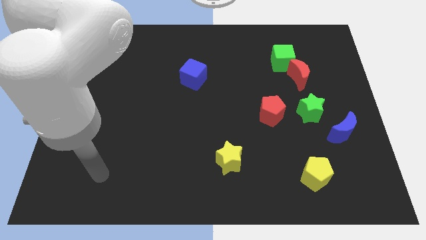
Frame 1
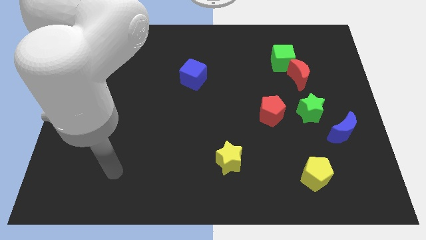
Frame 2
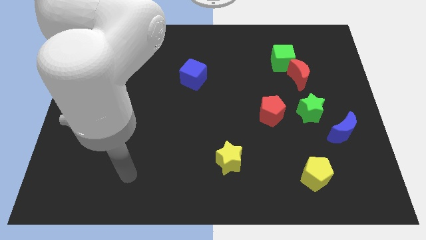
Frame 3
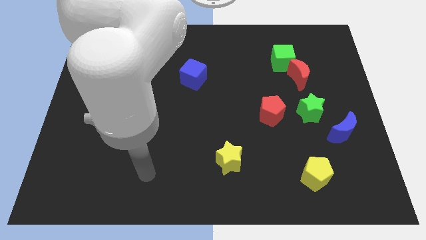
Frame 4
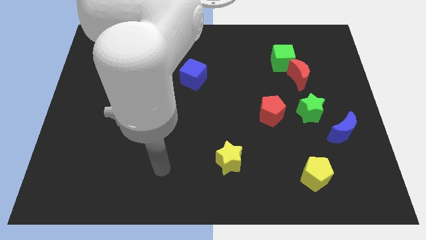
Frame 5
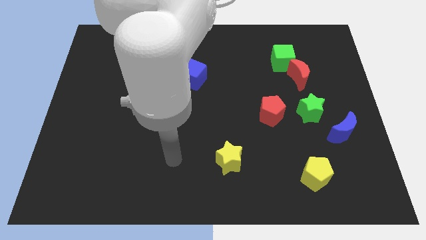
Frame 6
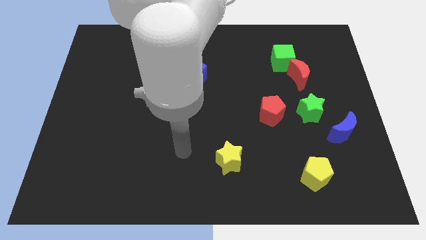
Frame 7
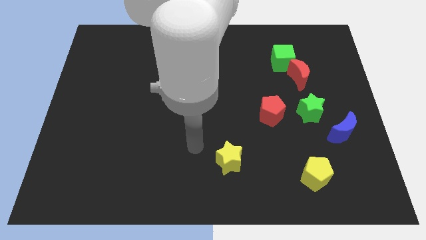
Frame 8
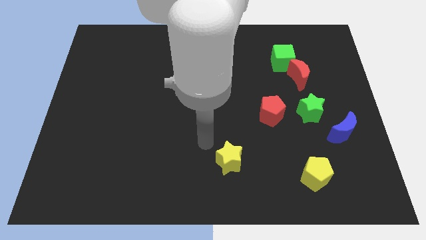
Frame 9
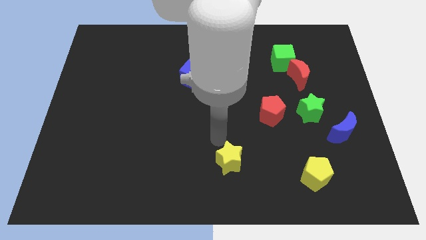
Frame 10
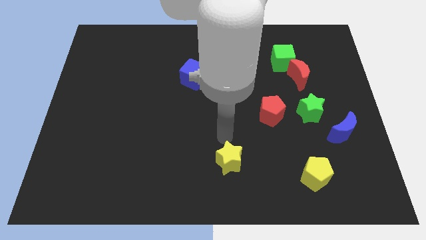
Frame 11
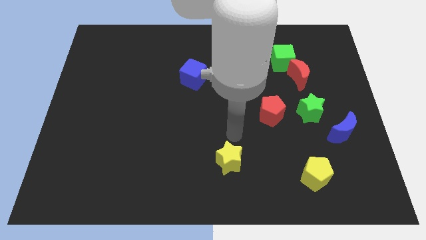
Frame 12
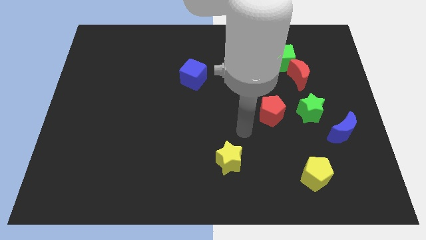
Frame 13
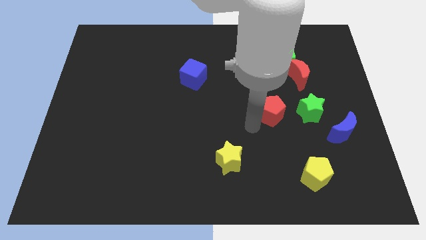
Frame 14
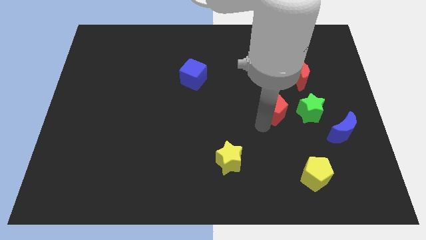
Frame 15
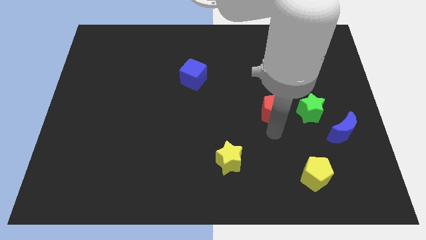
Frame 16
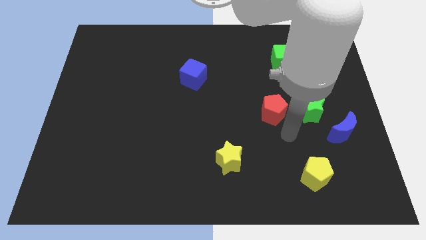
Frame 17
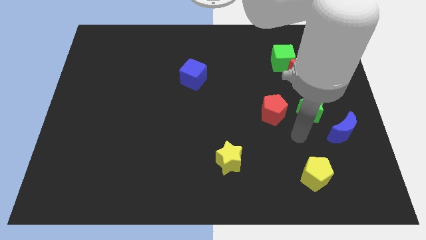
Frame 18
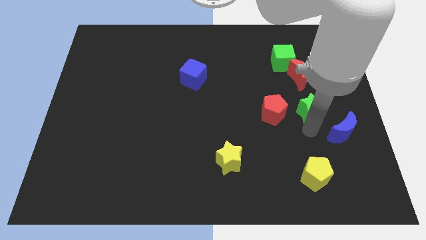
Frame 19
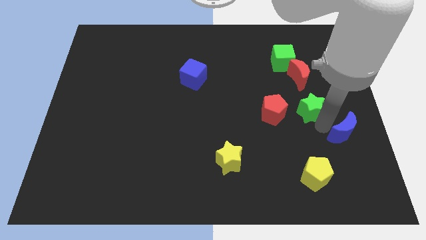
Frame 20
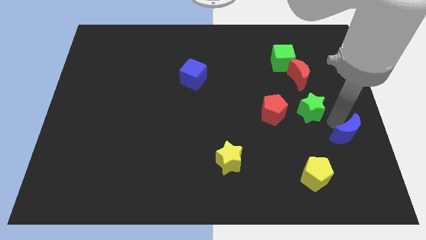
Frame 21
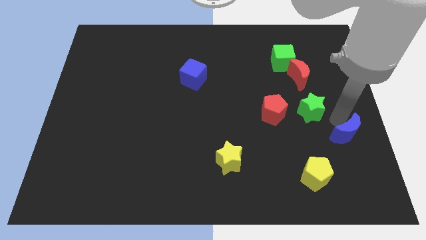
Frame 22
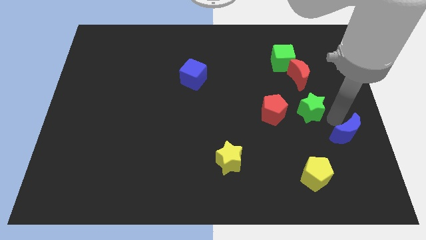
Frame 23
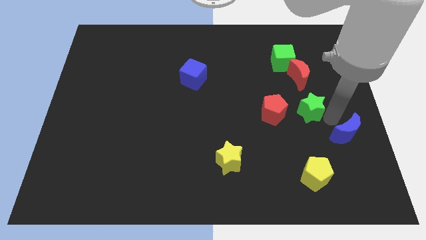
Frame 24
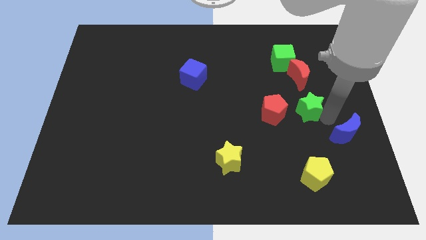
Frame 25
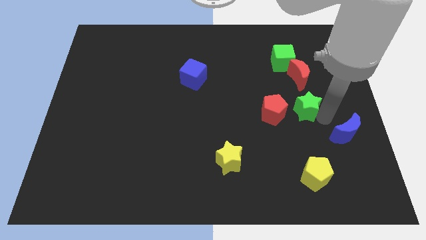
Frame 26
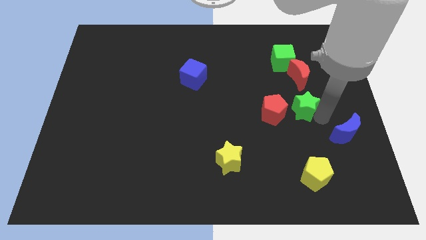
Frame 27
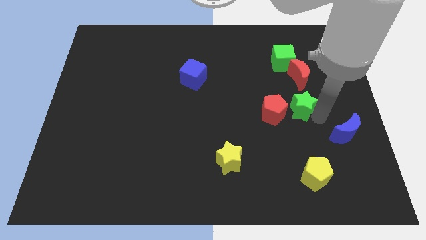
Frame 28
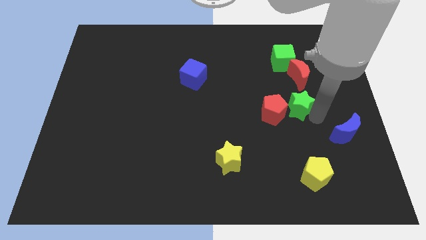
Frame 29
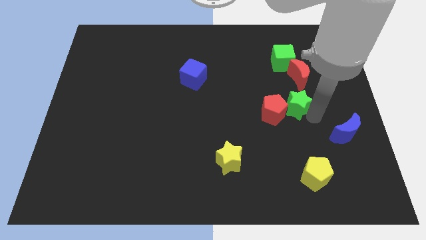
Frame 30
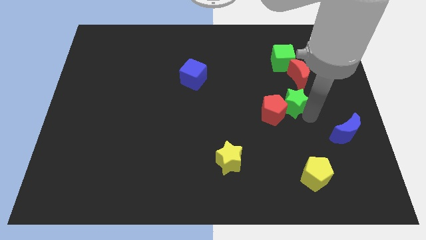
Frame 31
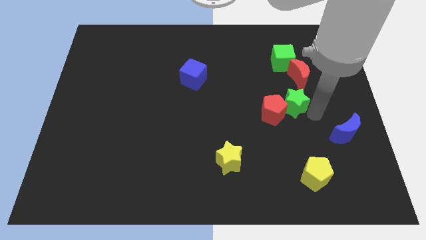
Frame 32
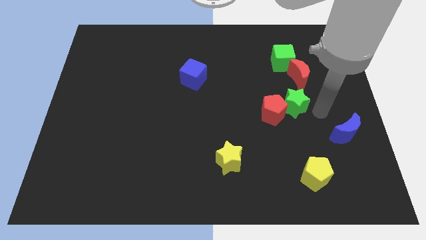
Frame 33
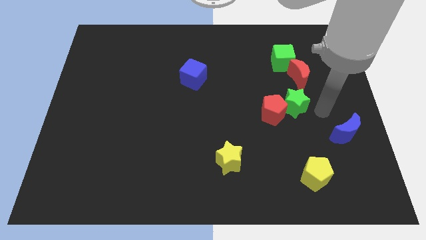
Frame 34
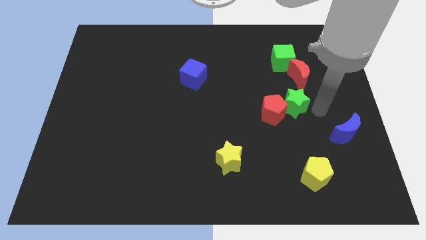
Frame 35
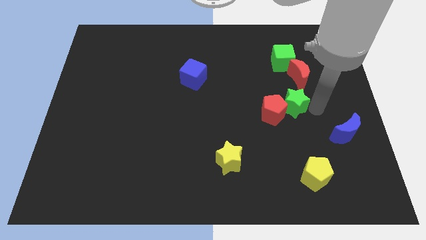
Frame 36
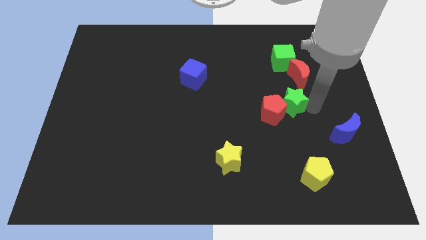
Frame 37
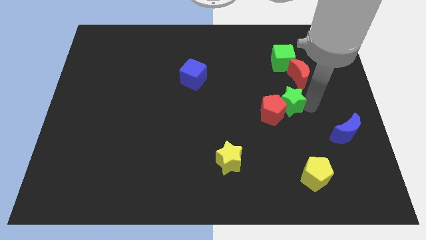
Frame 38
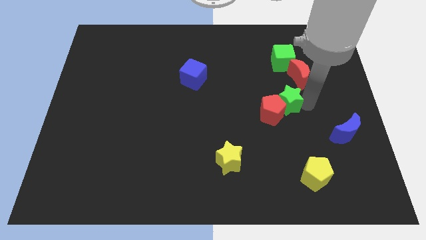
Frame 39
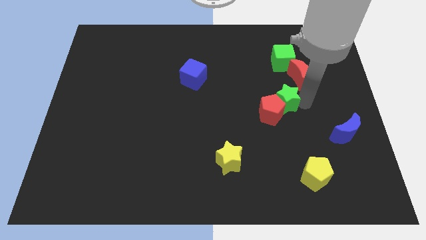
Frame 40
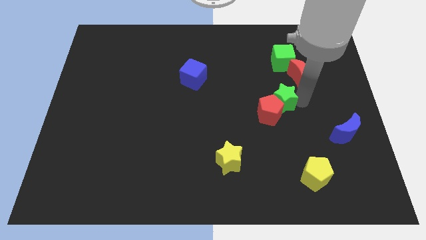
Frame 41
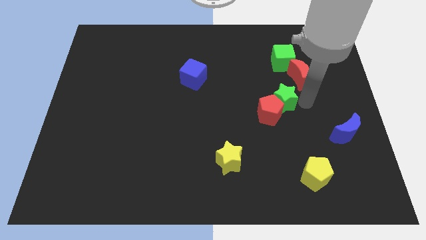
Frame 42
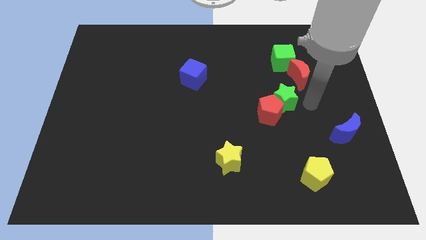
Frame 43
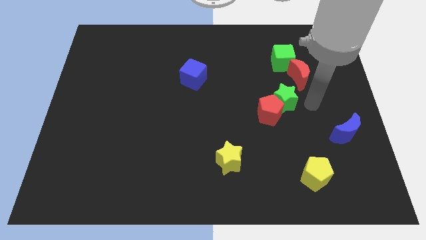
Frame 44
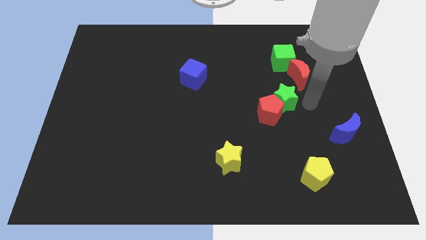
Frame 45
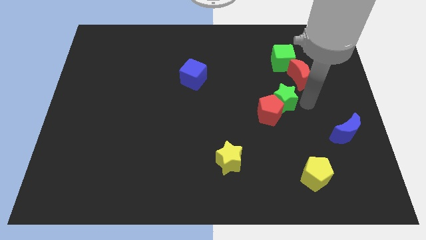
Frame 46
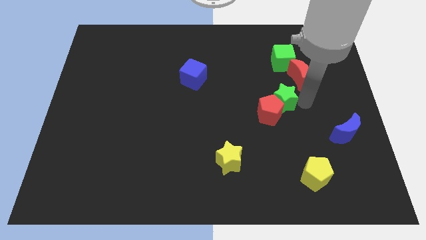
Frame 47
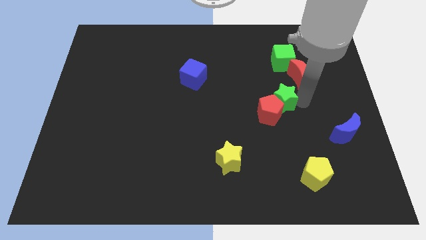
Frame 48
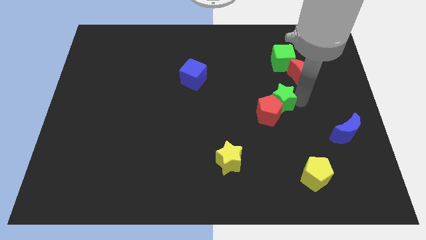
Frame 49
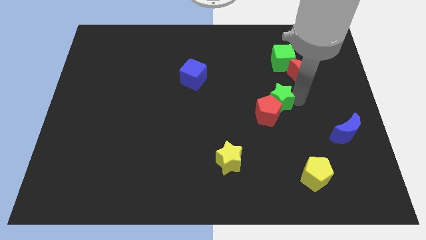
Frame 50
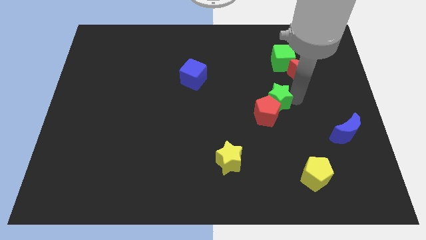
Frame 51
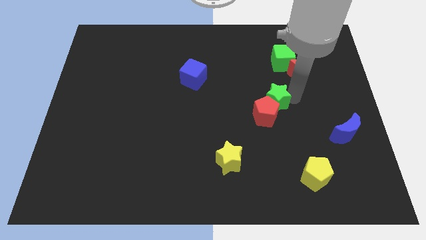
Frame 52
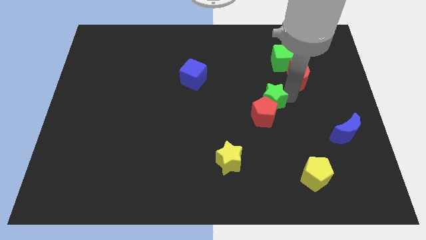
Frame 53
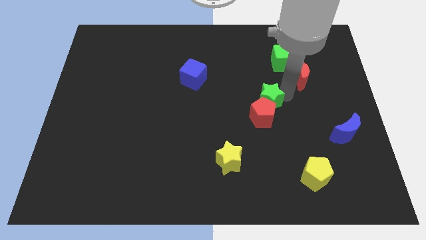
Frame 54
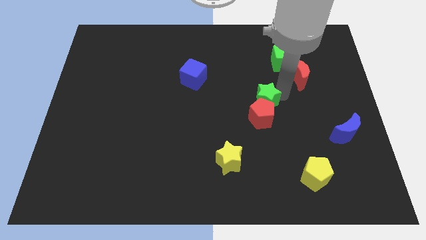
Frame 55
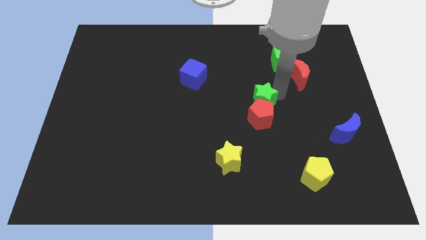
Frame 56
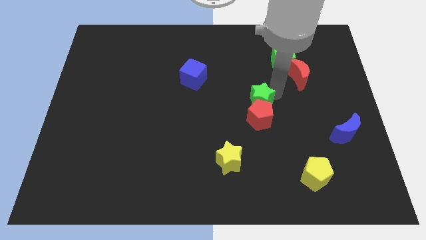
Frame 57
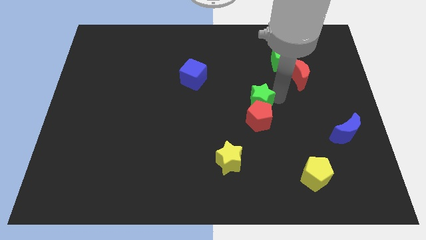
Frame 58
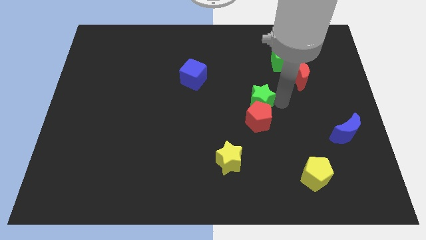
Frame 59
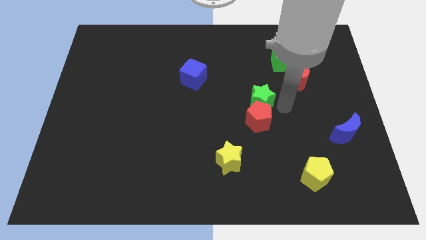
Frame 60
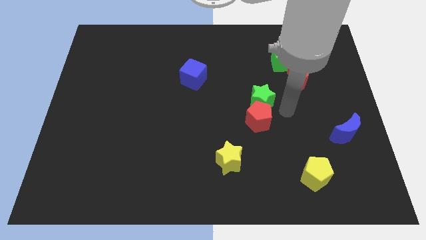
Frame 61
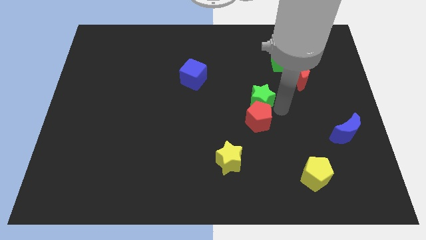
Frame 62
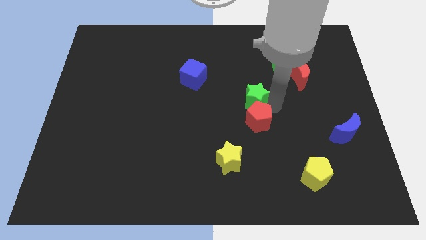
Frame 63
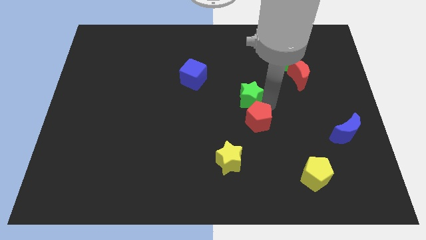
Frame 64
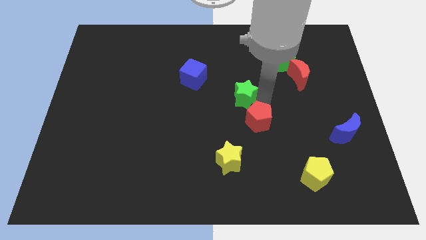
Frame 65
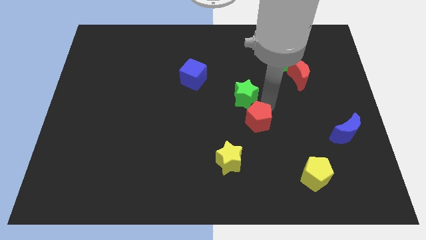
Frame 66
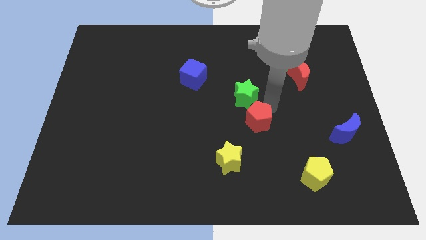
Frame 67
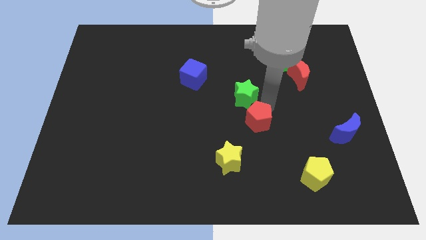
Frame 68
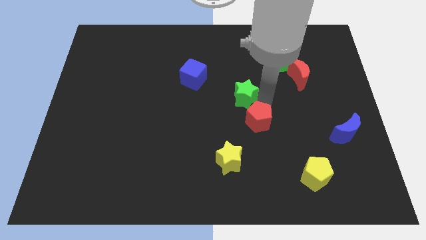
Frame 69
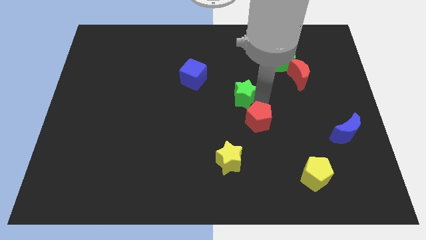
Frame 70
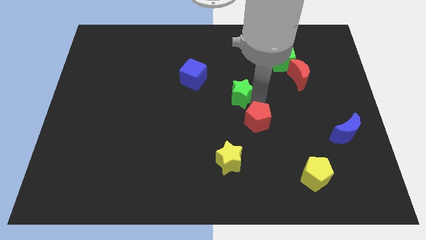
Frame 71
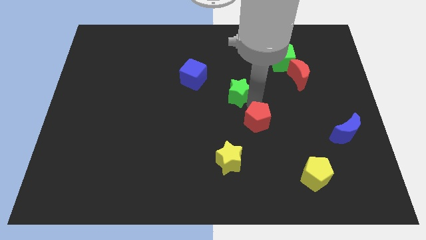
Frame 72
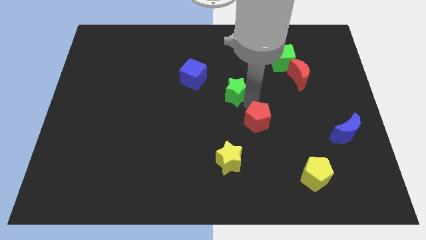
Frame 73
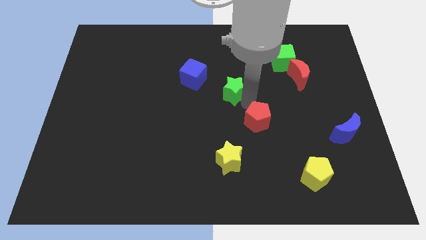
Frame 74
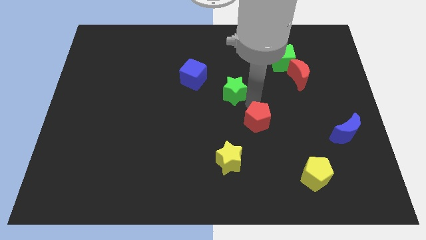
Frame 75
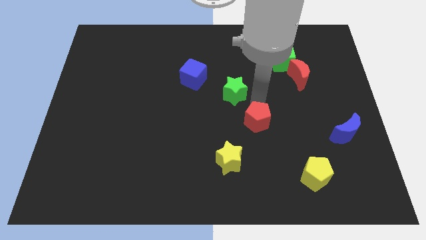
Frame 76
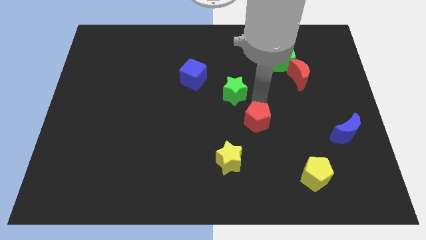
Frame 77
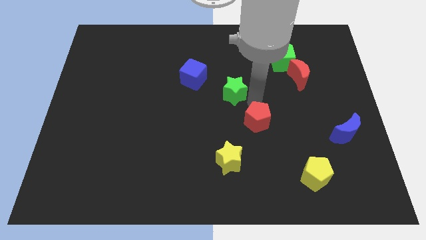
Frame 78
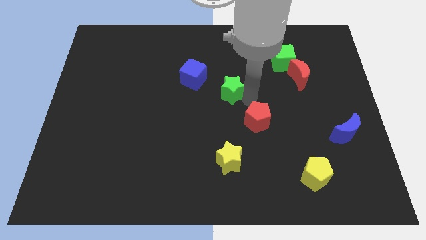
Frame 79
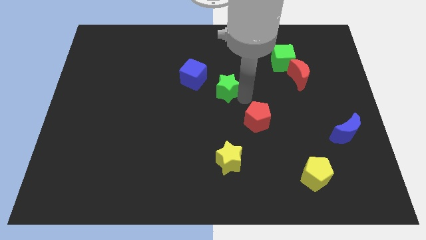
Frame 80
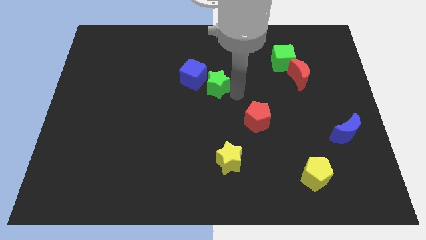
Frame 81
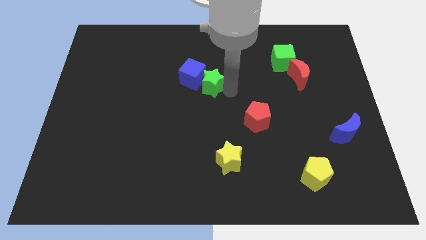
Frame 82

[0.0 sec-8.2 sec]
put the green star to the blue cube
